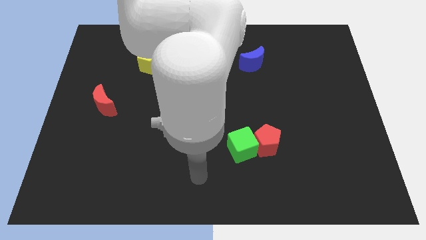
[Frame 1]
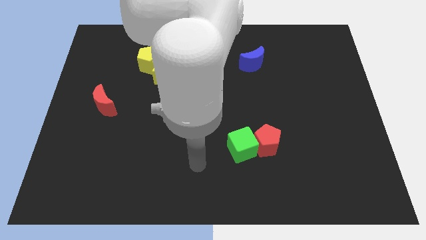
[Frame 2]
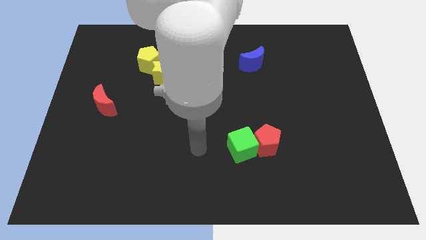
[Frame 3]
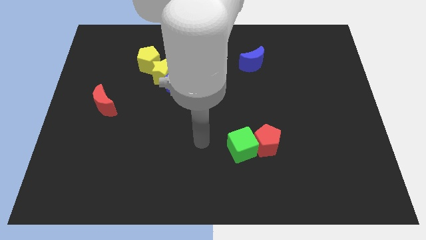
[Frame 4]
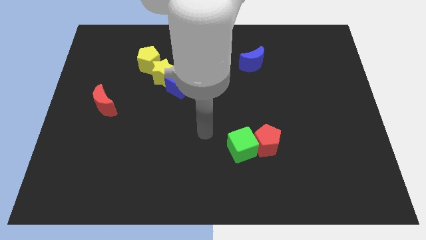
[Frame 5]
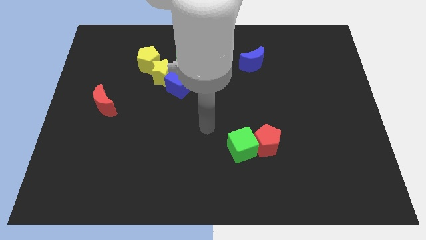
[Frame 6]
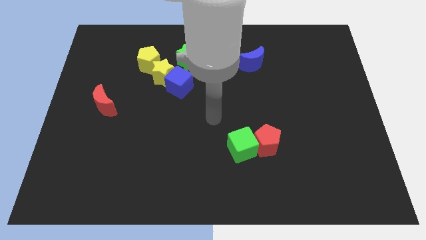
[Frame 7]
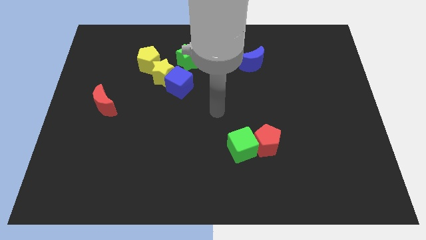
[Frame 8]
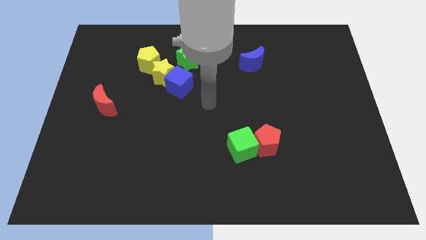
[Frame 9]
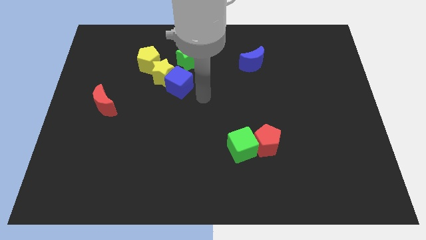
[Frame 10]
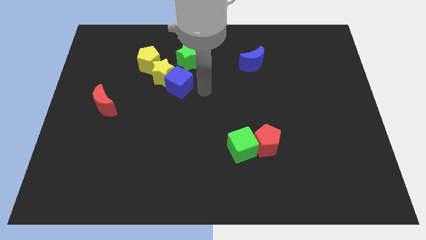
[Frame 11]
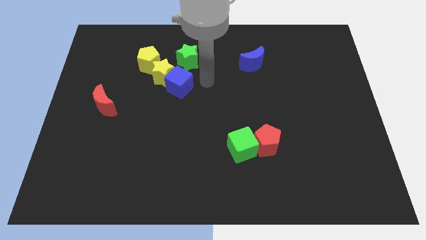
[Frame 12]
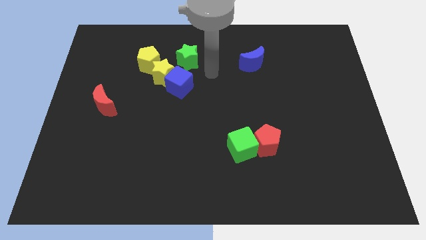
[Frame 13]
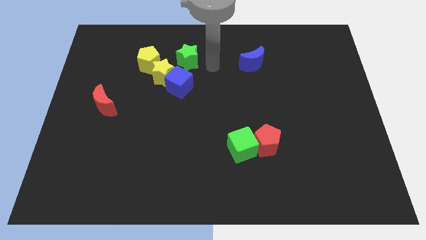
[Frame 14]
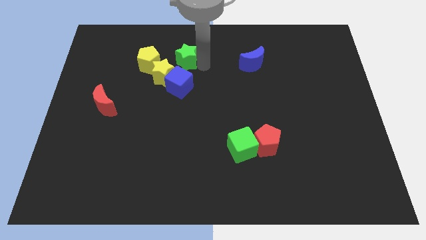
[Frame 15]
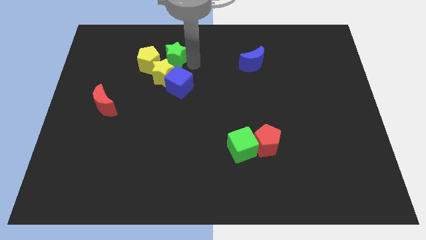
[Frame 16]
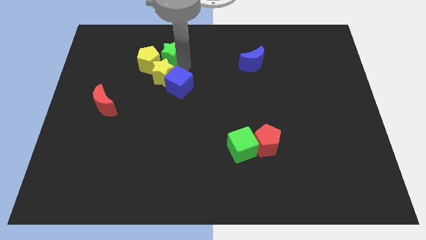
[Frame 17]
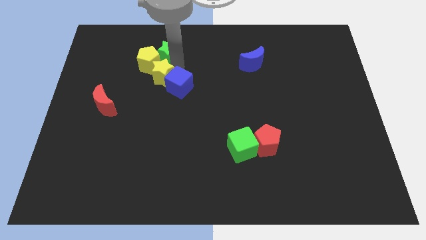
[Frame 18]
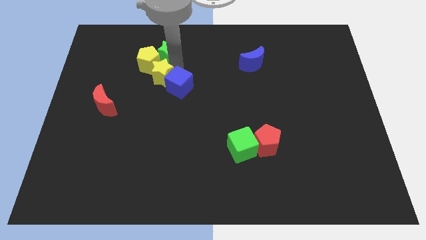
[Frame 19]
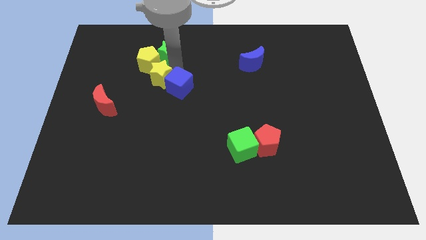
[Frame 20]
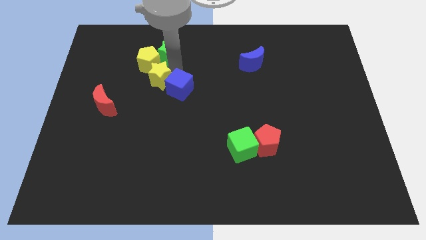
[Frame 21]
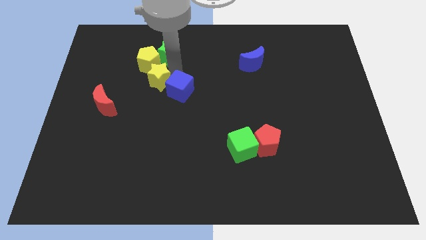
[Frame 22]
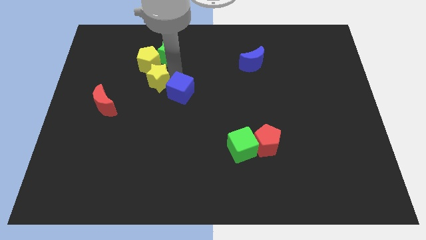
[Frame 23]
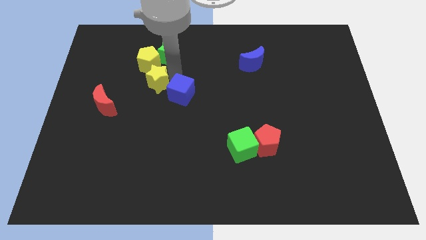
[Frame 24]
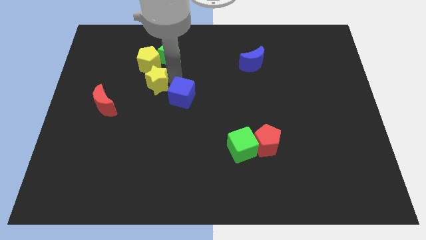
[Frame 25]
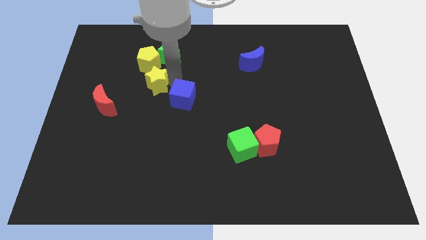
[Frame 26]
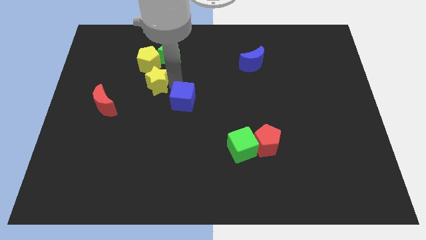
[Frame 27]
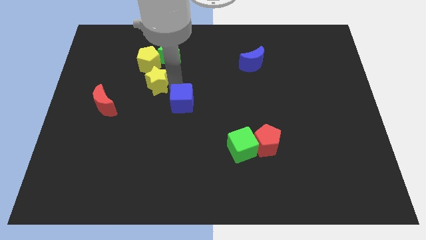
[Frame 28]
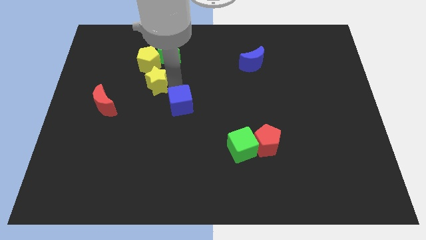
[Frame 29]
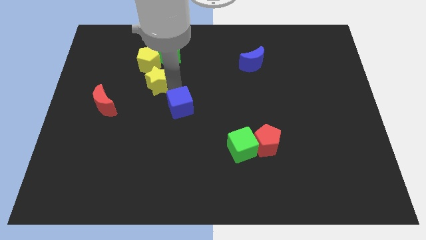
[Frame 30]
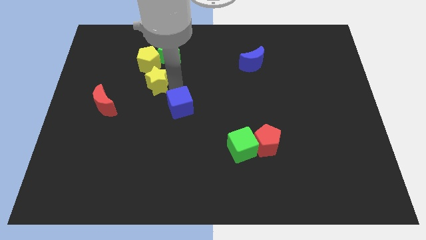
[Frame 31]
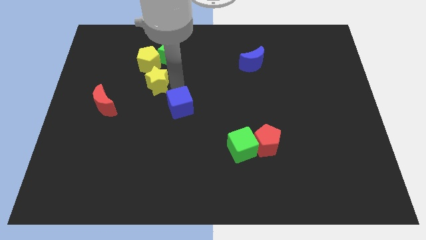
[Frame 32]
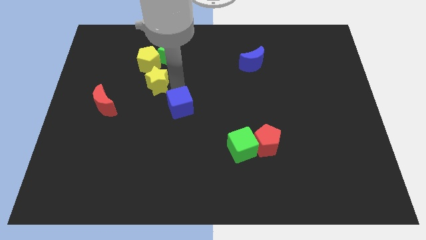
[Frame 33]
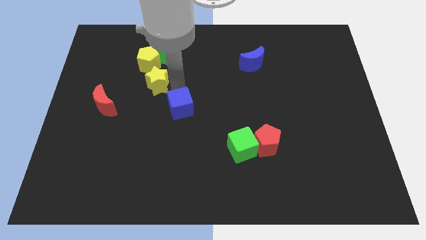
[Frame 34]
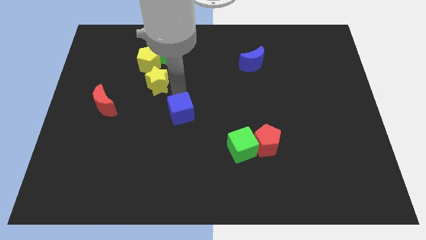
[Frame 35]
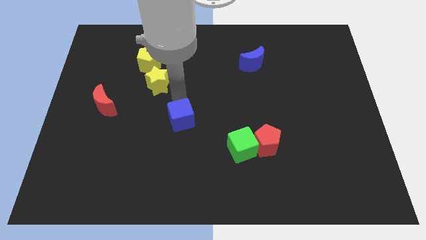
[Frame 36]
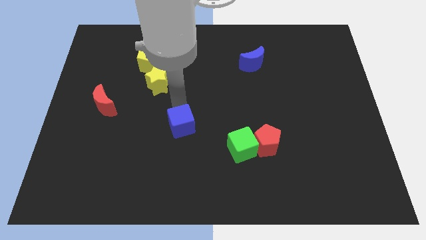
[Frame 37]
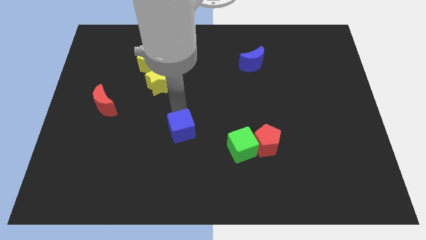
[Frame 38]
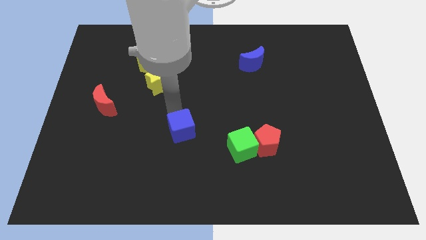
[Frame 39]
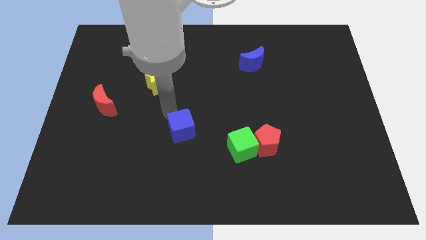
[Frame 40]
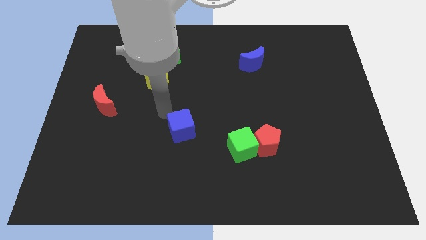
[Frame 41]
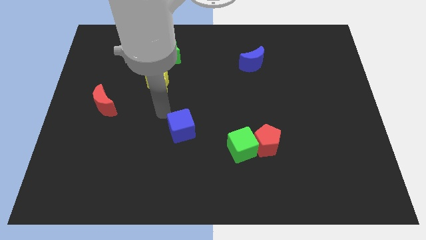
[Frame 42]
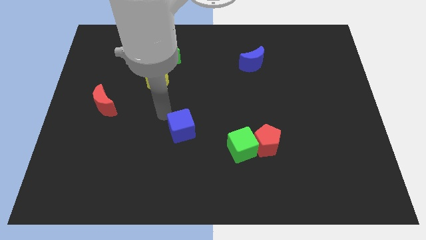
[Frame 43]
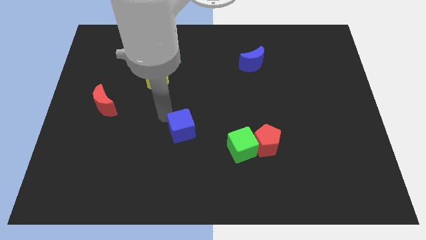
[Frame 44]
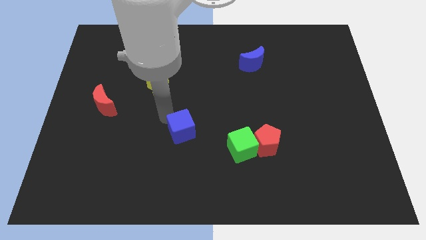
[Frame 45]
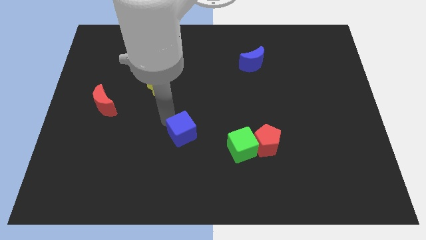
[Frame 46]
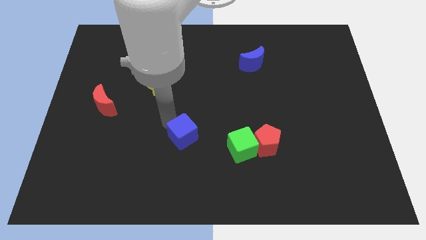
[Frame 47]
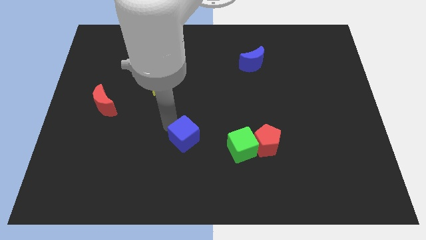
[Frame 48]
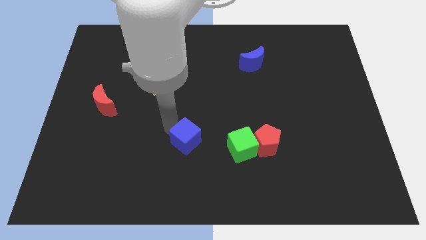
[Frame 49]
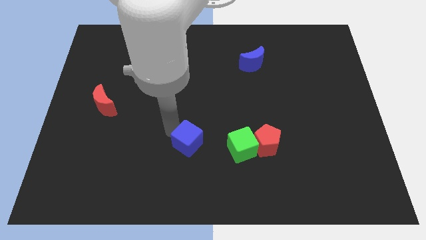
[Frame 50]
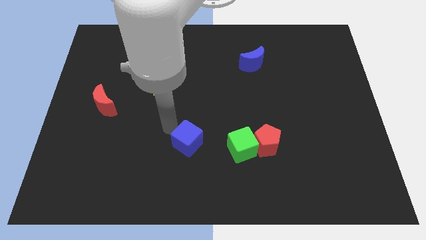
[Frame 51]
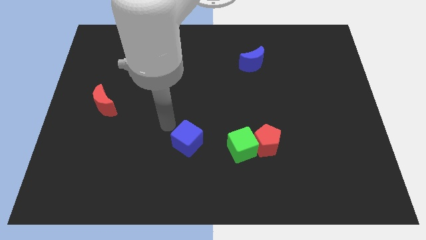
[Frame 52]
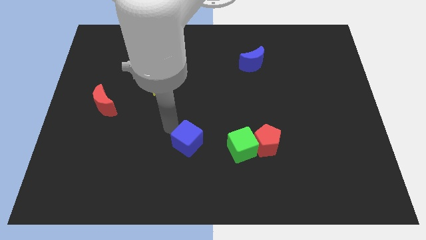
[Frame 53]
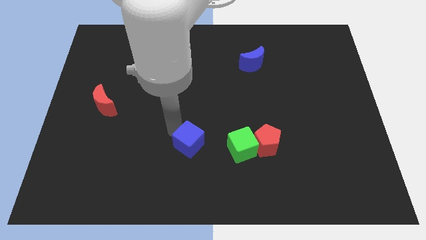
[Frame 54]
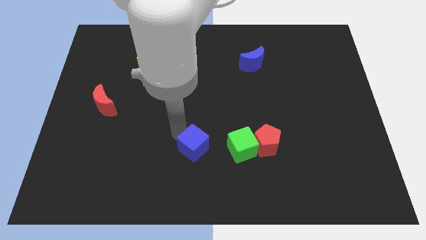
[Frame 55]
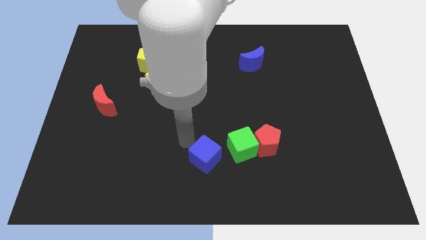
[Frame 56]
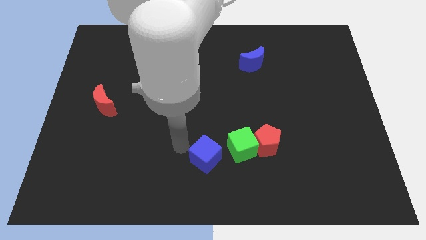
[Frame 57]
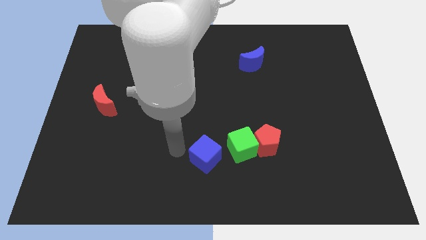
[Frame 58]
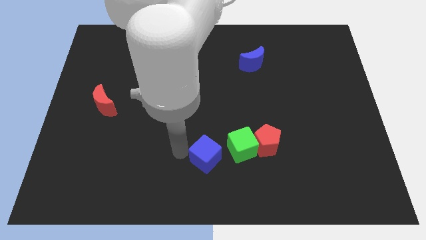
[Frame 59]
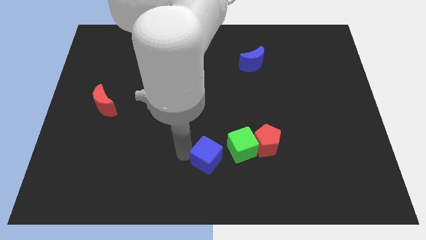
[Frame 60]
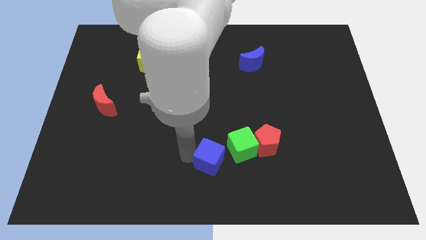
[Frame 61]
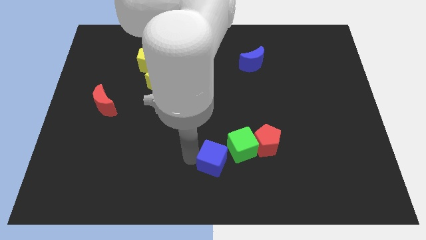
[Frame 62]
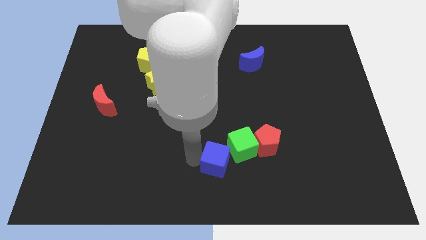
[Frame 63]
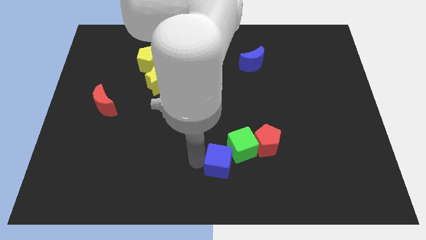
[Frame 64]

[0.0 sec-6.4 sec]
slide the blue cube to the bottom left of the red pentagon

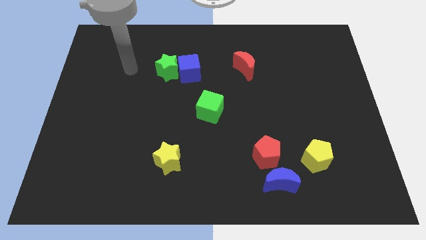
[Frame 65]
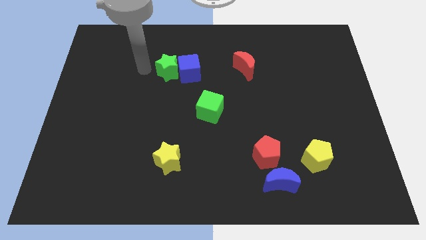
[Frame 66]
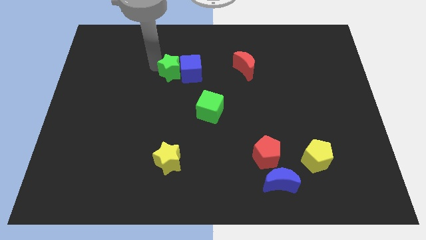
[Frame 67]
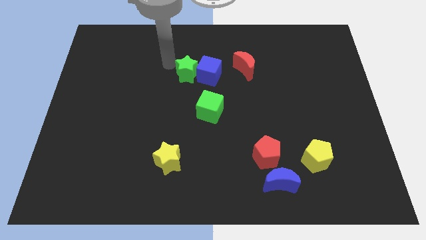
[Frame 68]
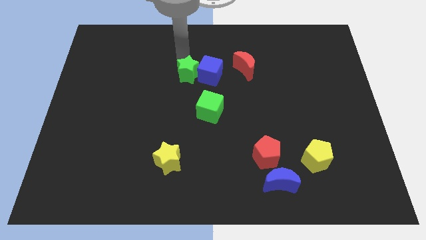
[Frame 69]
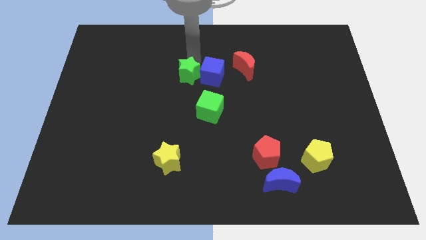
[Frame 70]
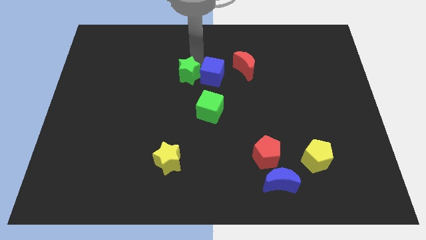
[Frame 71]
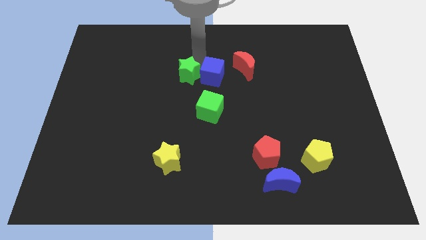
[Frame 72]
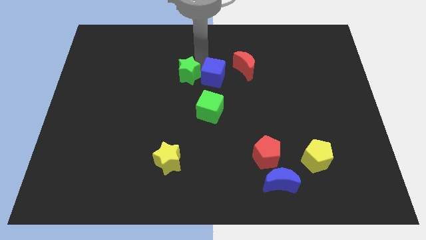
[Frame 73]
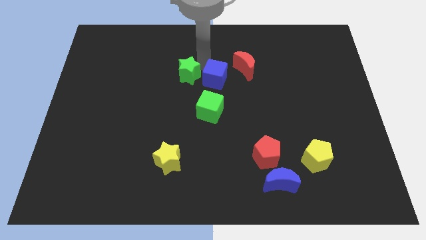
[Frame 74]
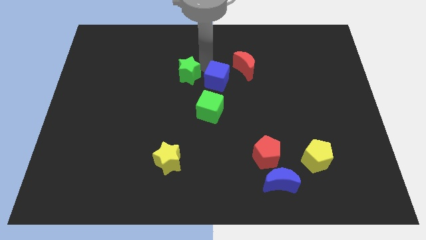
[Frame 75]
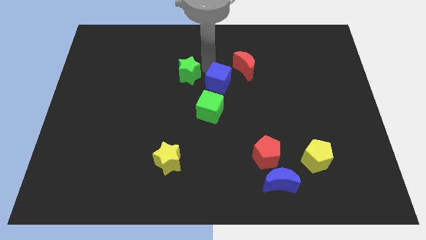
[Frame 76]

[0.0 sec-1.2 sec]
slide the blue cube to the top right of the green cube
